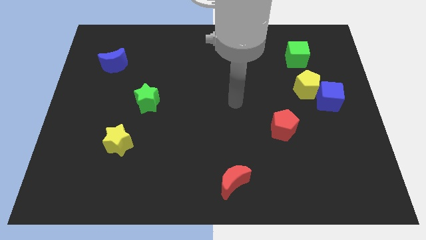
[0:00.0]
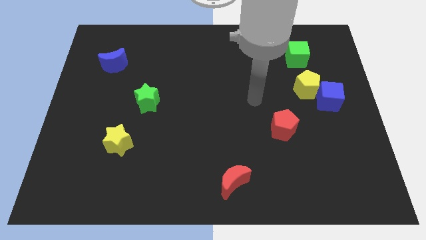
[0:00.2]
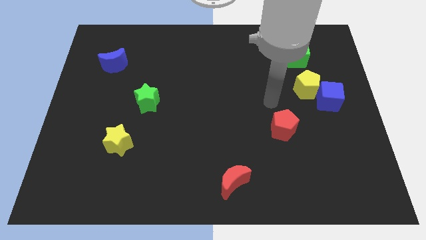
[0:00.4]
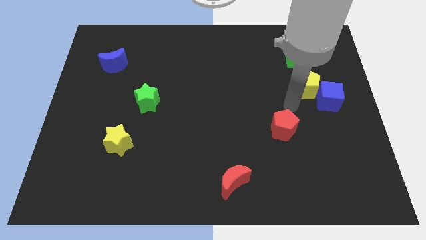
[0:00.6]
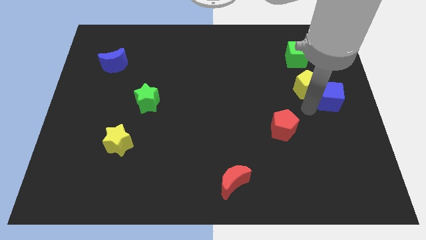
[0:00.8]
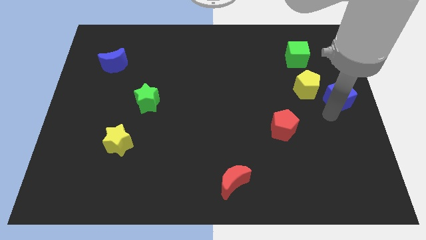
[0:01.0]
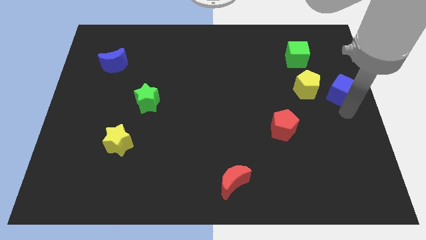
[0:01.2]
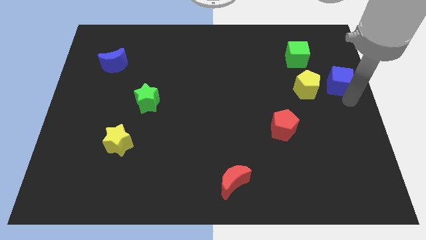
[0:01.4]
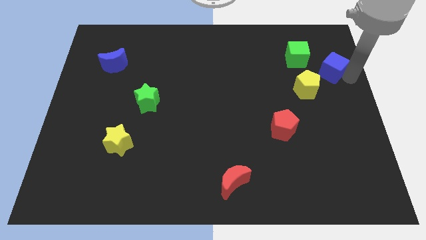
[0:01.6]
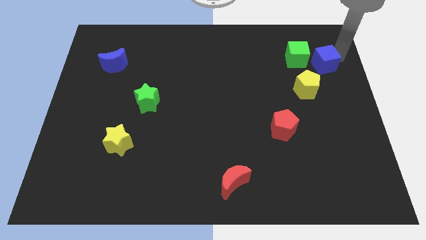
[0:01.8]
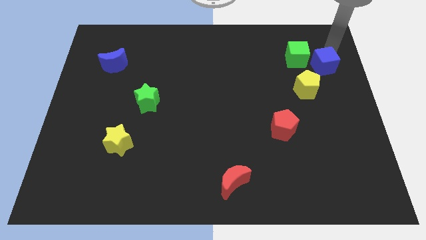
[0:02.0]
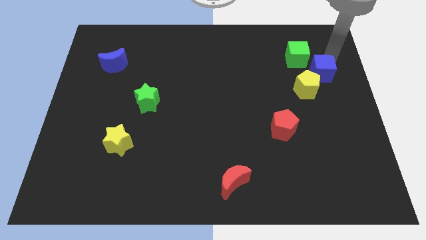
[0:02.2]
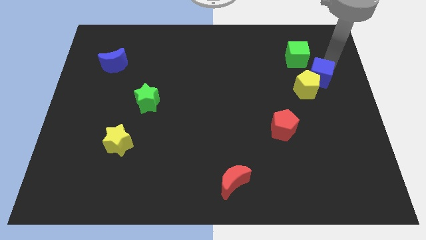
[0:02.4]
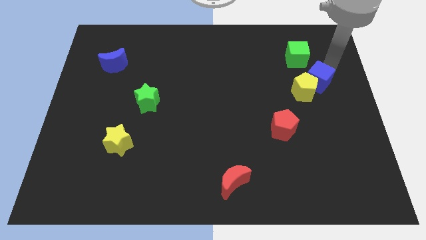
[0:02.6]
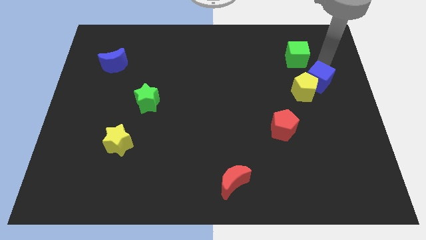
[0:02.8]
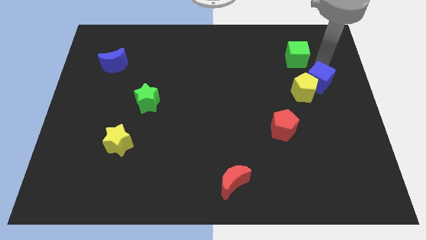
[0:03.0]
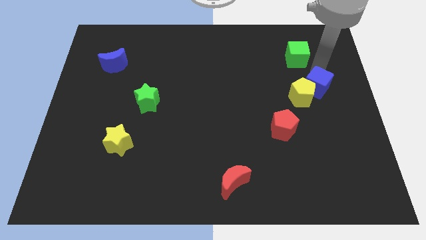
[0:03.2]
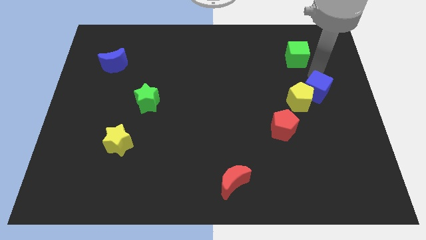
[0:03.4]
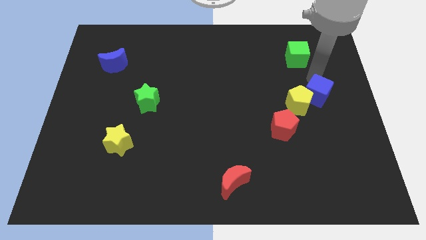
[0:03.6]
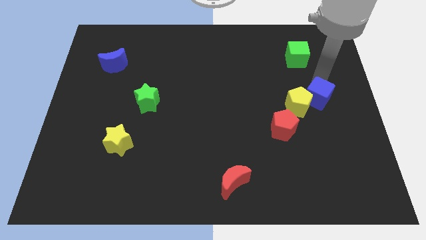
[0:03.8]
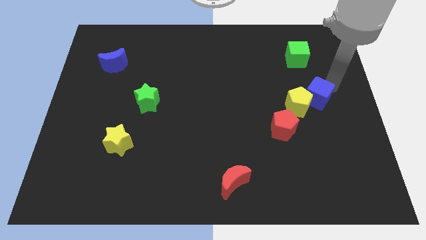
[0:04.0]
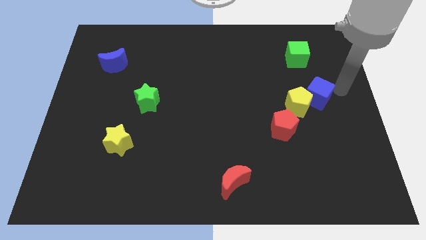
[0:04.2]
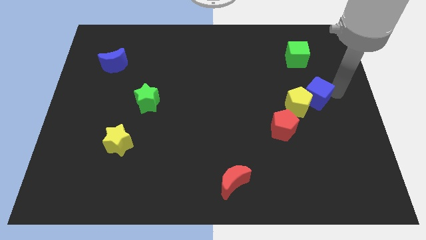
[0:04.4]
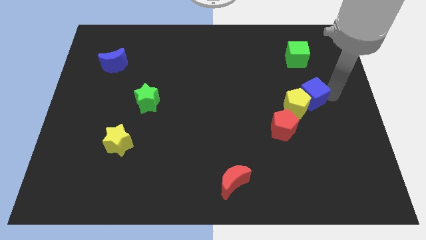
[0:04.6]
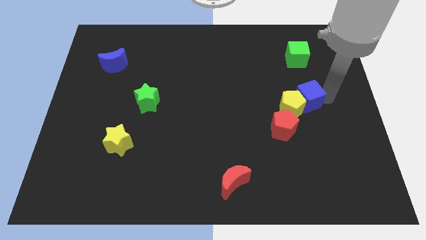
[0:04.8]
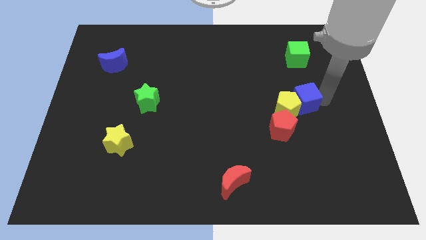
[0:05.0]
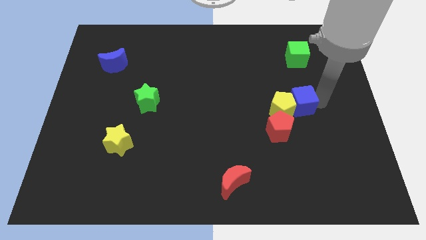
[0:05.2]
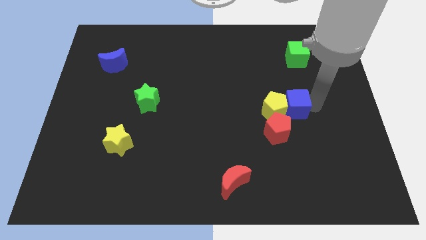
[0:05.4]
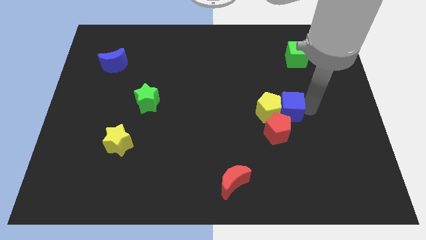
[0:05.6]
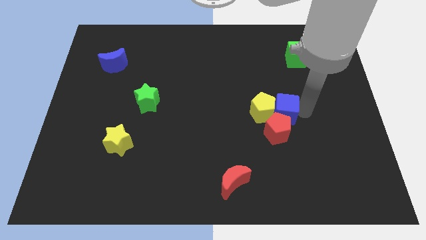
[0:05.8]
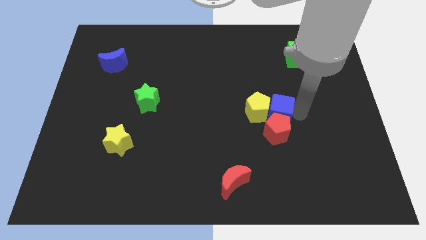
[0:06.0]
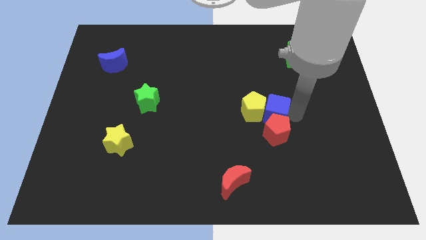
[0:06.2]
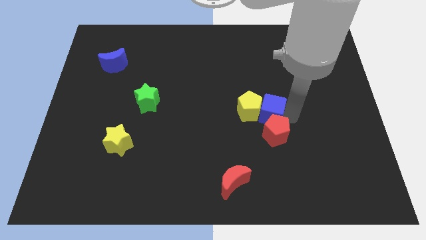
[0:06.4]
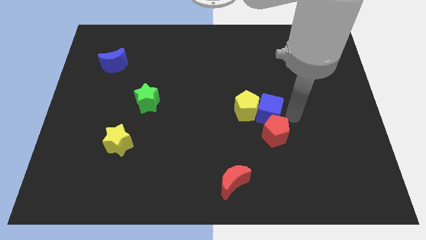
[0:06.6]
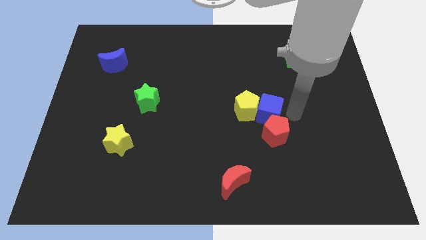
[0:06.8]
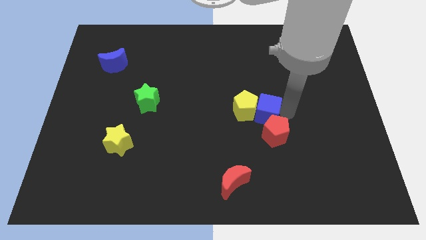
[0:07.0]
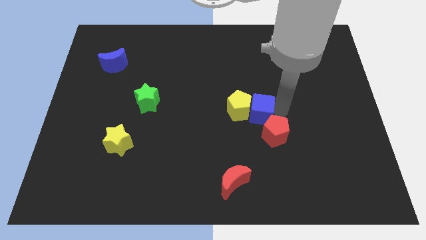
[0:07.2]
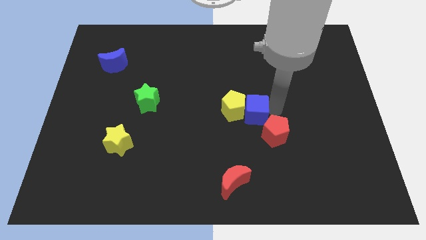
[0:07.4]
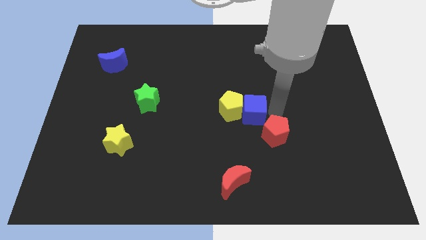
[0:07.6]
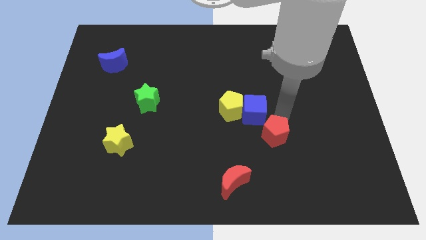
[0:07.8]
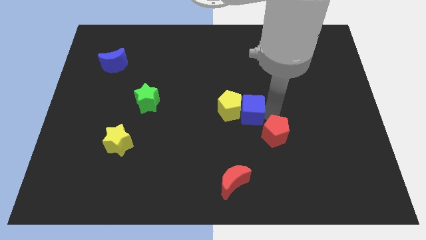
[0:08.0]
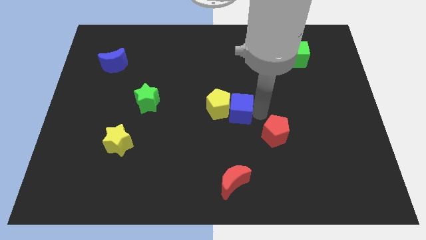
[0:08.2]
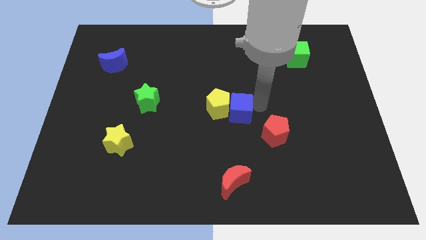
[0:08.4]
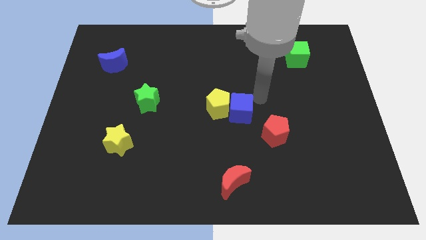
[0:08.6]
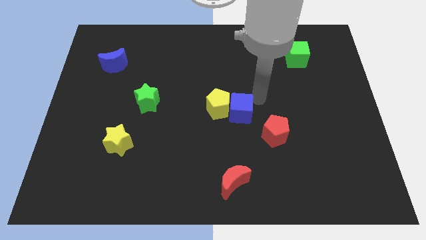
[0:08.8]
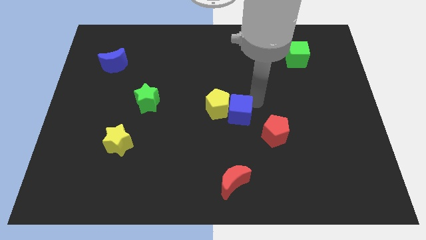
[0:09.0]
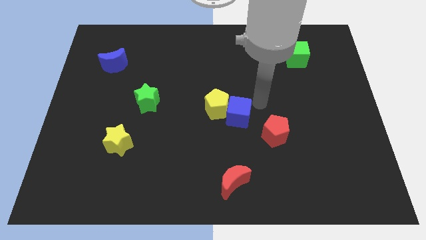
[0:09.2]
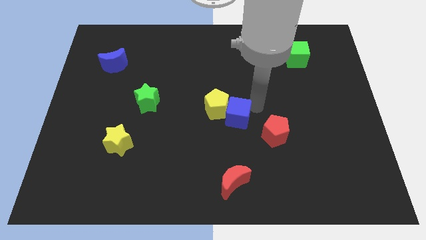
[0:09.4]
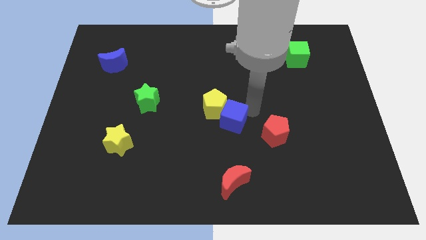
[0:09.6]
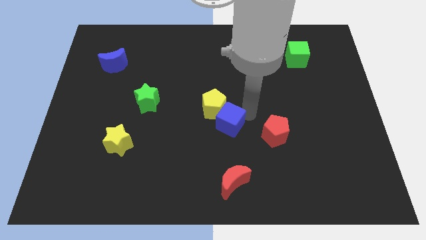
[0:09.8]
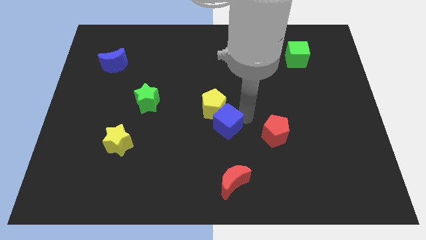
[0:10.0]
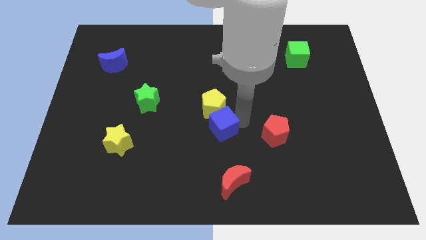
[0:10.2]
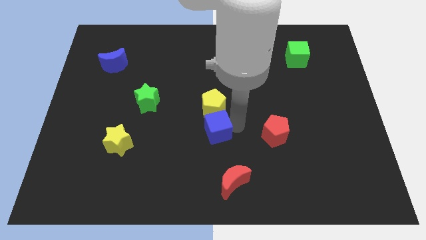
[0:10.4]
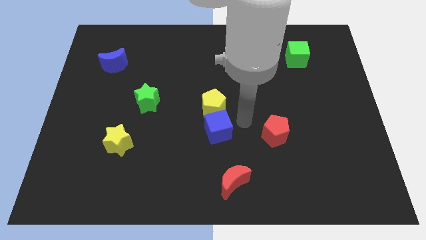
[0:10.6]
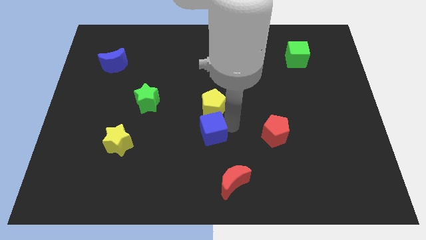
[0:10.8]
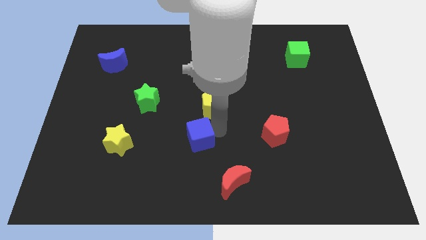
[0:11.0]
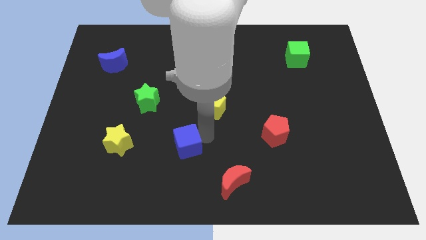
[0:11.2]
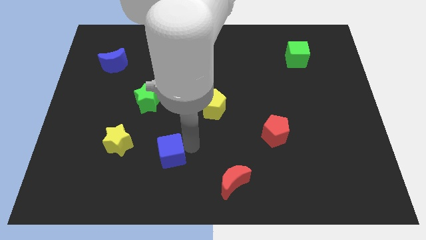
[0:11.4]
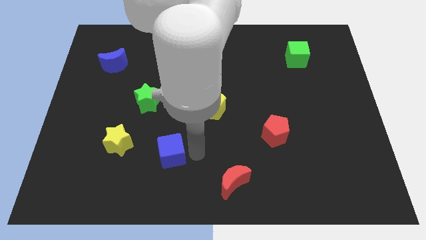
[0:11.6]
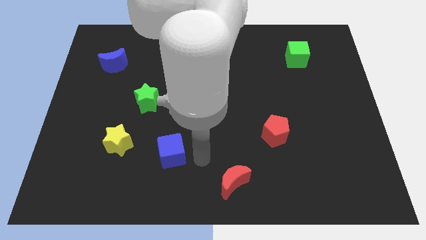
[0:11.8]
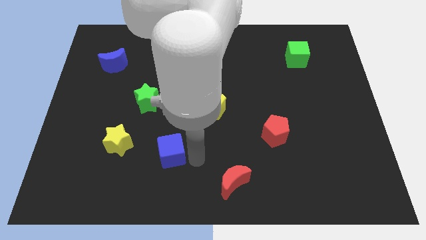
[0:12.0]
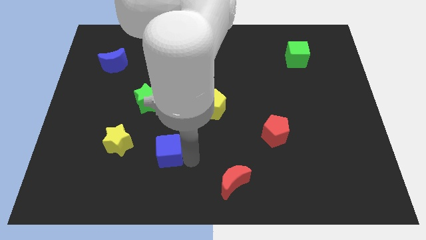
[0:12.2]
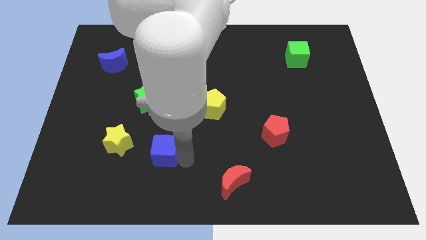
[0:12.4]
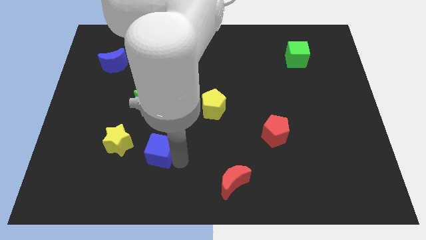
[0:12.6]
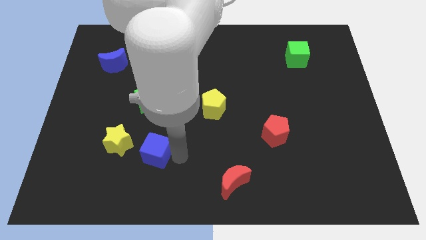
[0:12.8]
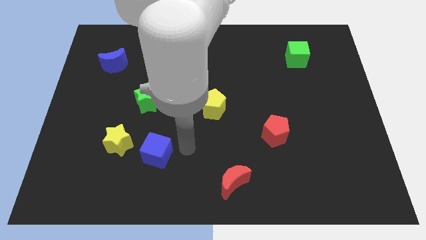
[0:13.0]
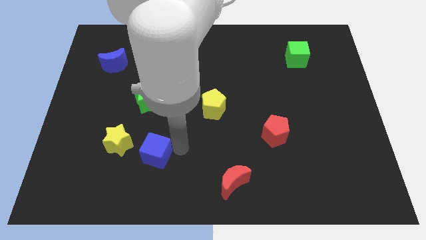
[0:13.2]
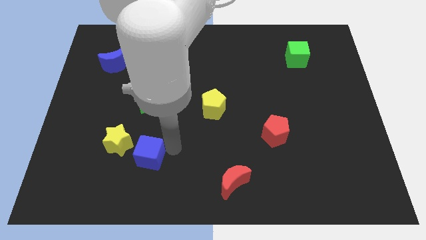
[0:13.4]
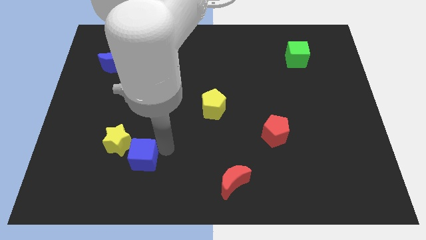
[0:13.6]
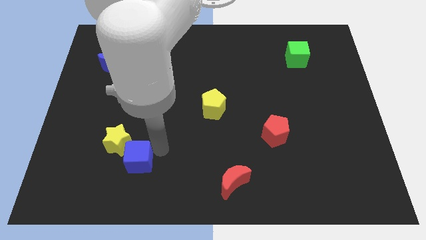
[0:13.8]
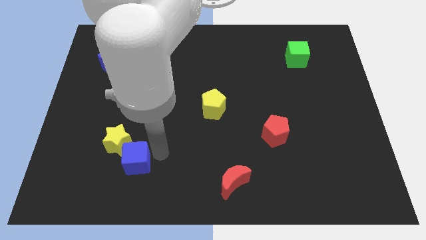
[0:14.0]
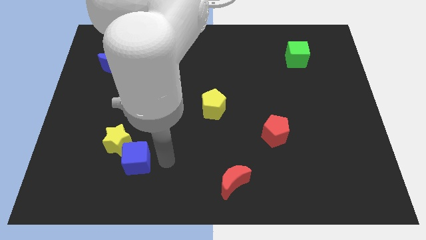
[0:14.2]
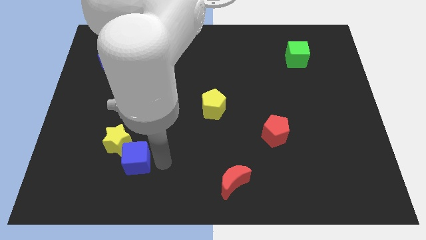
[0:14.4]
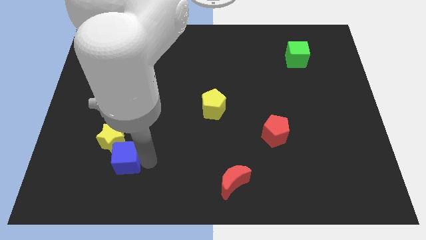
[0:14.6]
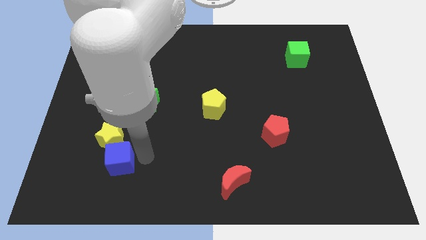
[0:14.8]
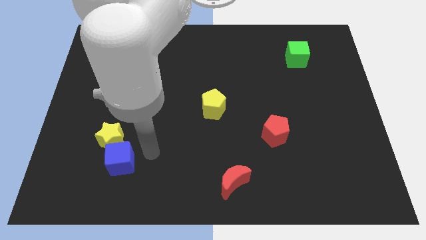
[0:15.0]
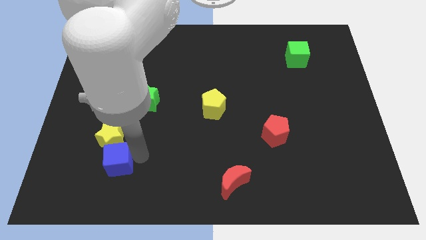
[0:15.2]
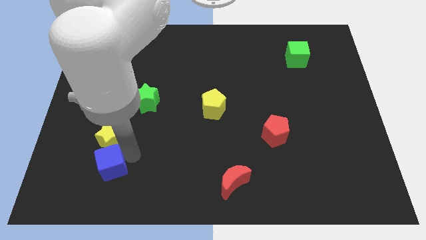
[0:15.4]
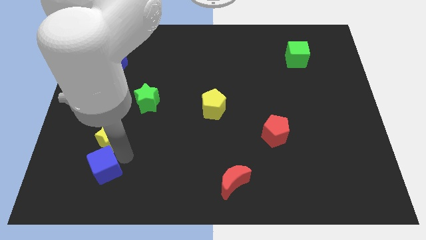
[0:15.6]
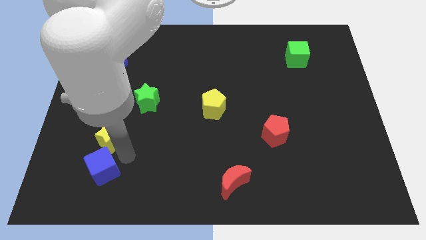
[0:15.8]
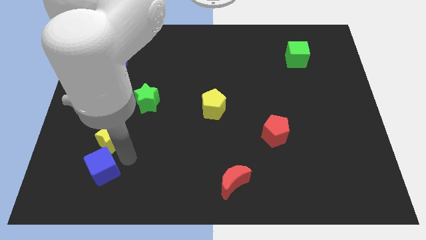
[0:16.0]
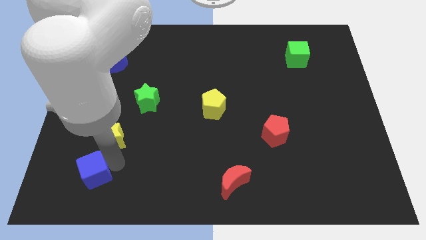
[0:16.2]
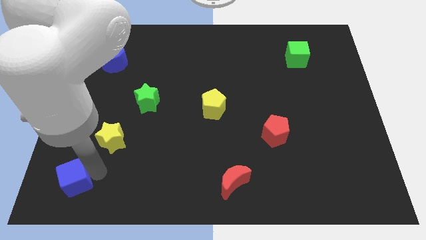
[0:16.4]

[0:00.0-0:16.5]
slide the blue cube to the bottom left corner
